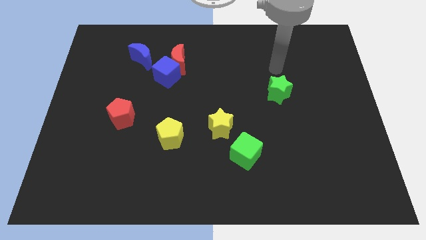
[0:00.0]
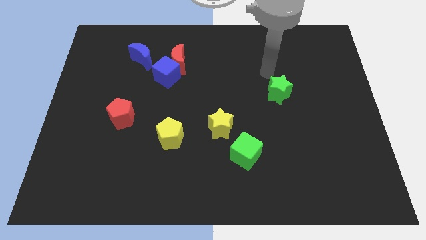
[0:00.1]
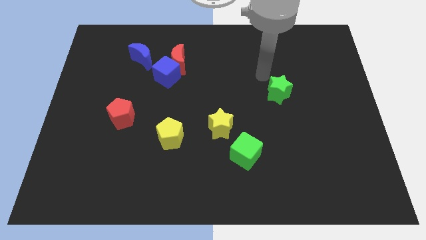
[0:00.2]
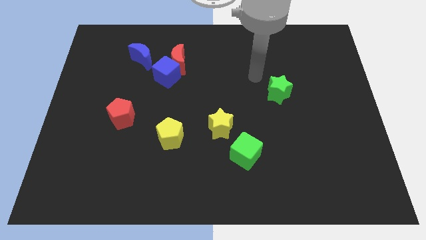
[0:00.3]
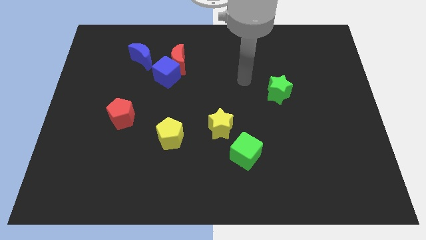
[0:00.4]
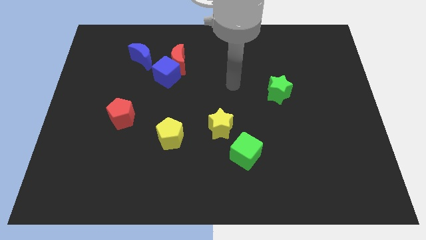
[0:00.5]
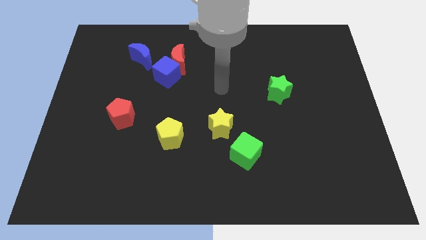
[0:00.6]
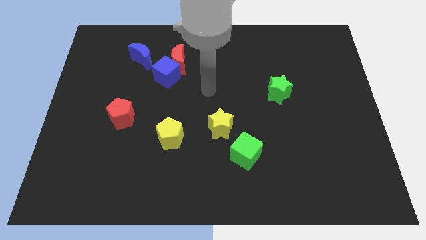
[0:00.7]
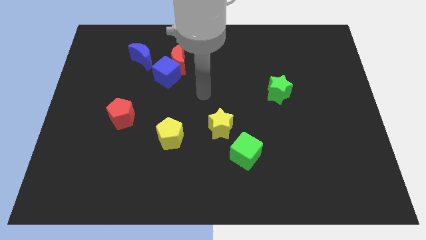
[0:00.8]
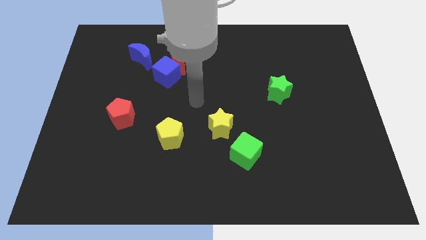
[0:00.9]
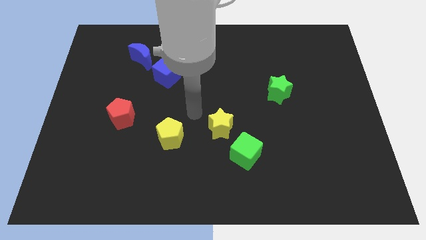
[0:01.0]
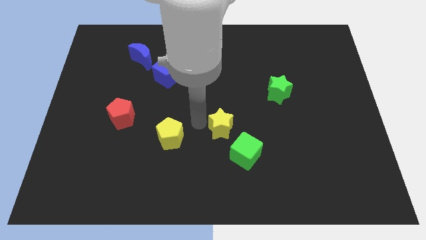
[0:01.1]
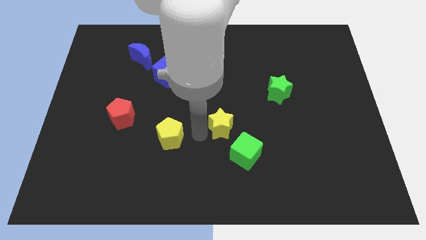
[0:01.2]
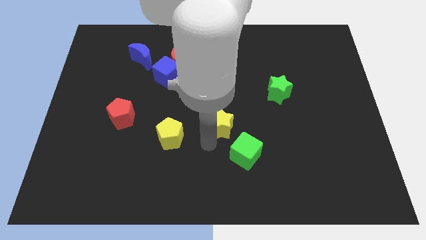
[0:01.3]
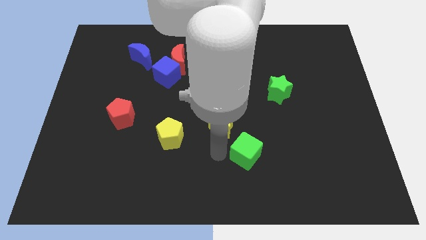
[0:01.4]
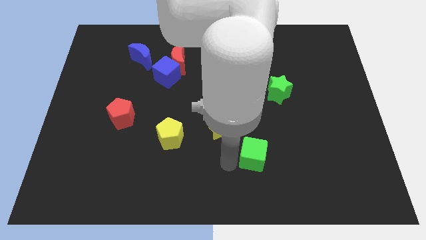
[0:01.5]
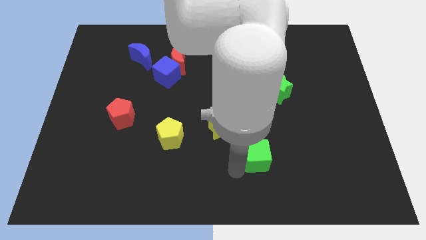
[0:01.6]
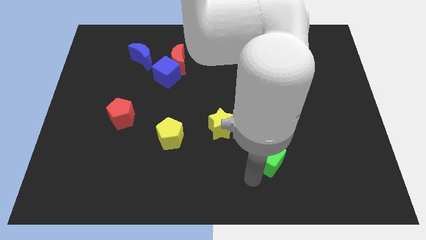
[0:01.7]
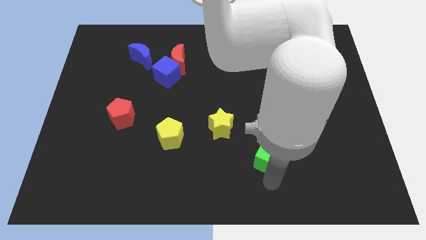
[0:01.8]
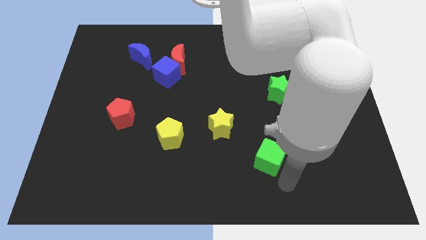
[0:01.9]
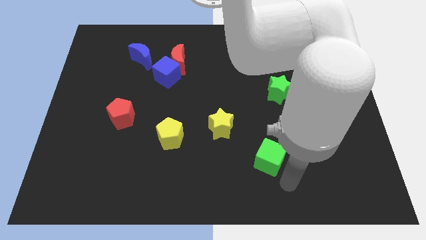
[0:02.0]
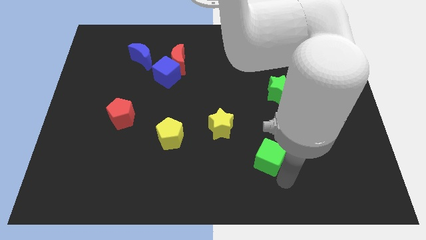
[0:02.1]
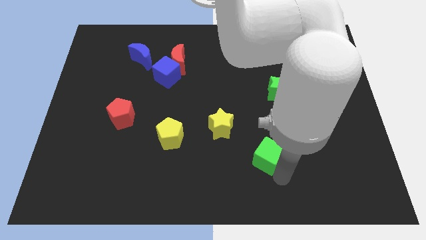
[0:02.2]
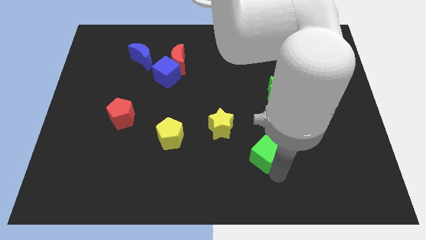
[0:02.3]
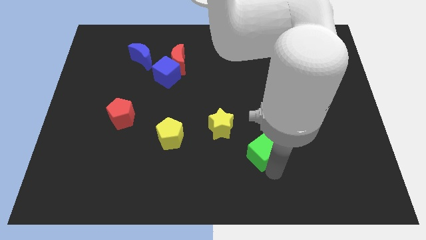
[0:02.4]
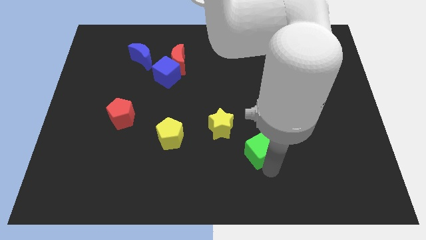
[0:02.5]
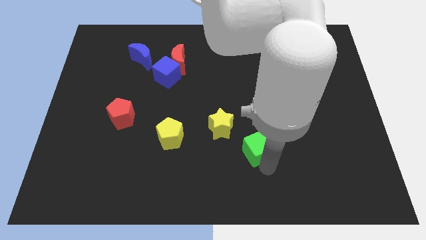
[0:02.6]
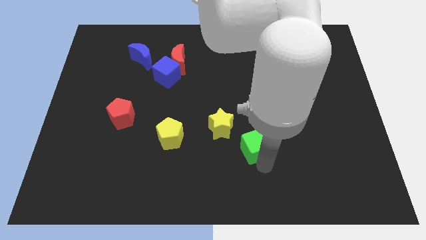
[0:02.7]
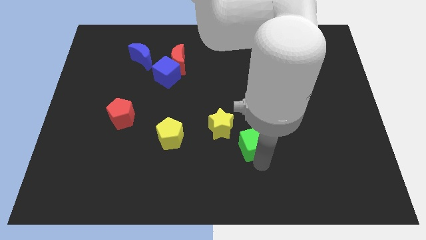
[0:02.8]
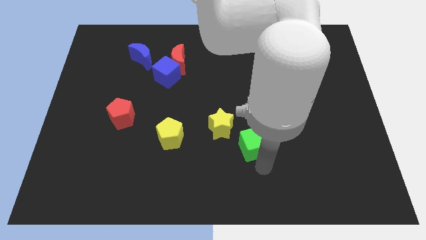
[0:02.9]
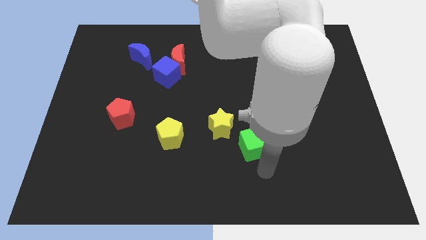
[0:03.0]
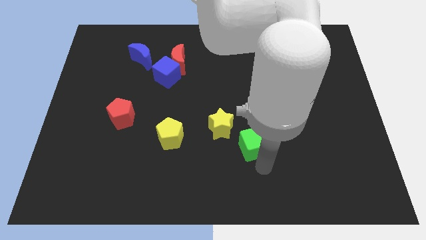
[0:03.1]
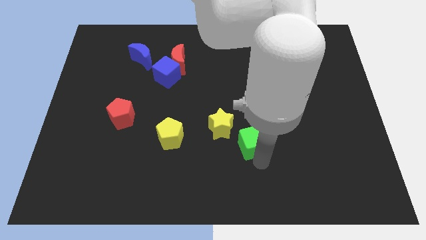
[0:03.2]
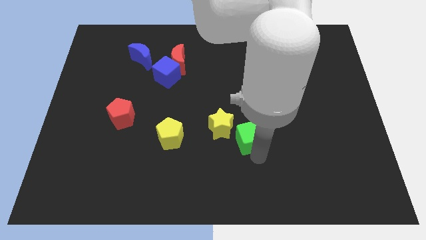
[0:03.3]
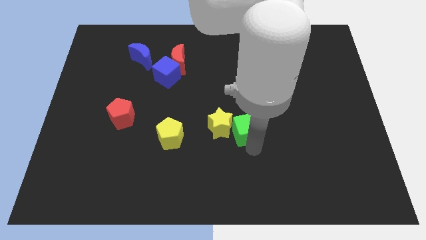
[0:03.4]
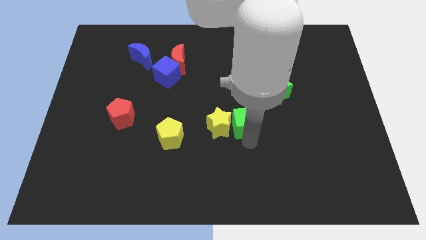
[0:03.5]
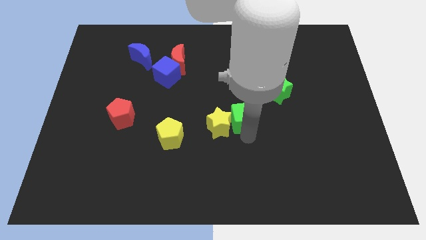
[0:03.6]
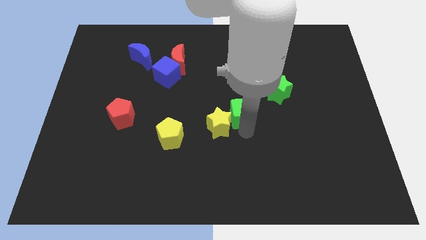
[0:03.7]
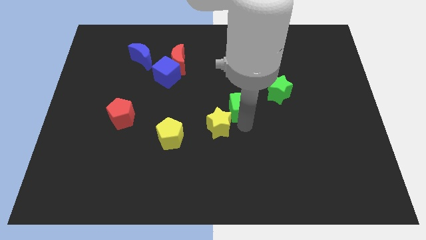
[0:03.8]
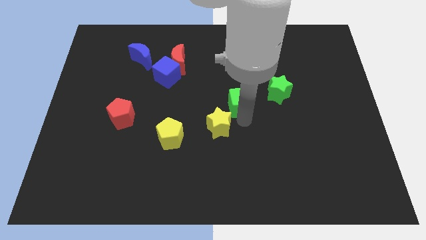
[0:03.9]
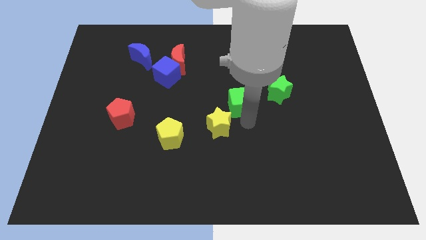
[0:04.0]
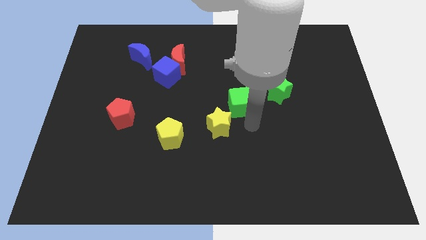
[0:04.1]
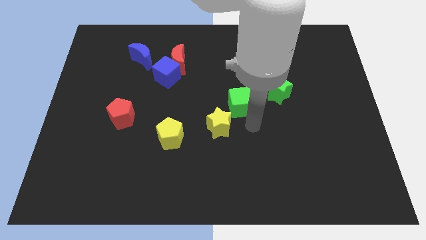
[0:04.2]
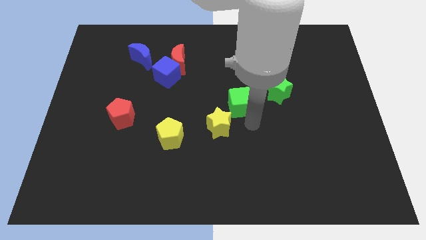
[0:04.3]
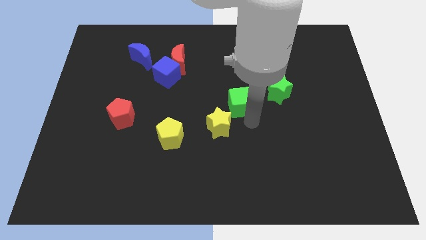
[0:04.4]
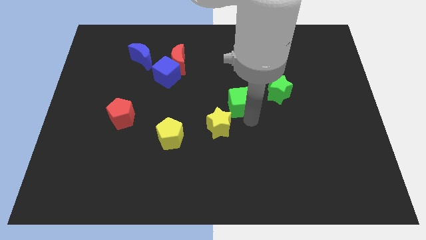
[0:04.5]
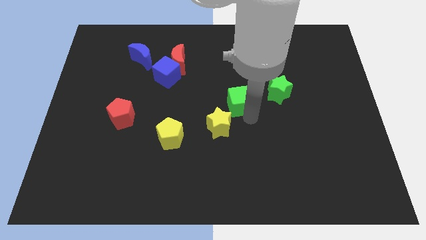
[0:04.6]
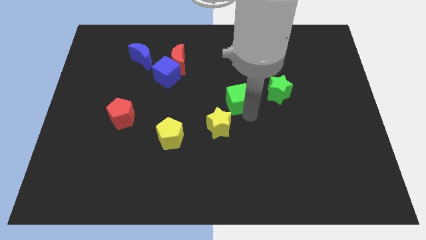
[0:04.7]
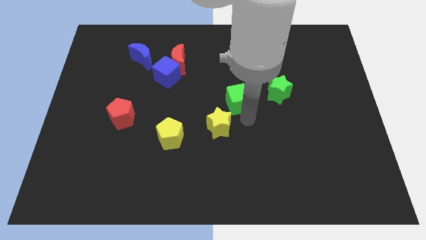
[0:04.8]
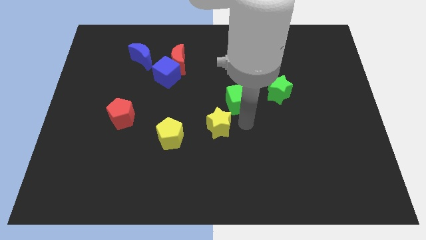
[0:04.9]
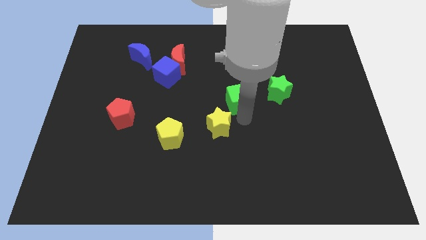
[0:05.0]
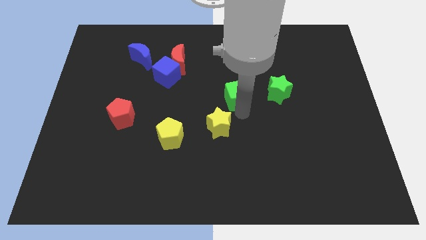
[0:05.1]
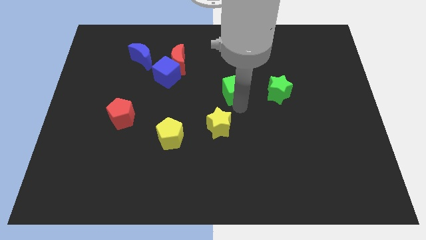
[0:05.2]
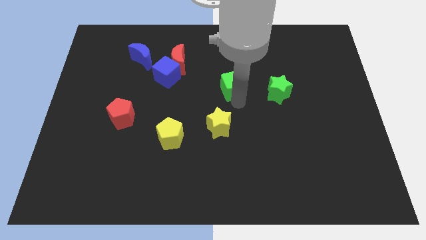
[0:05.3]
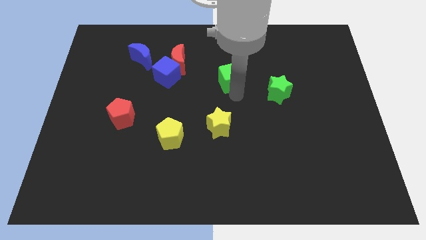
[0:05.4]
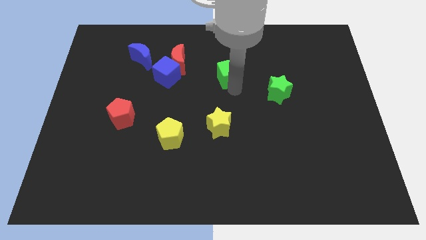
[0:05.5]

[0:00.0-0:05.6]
push the green cube right of the red moon

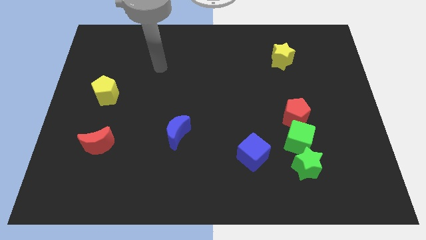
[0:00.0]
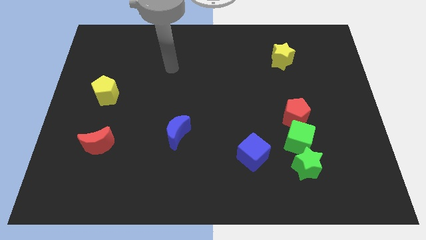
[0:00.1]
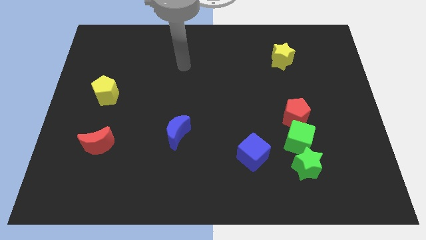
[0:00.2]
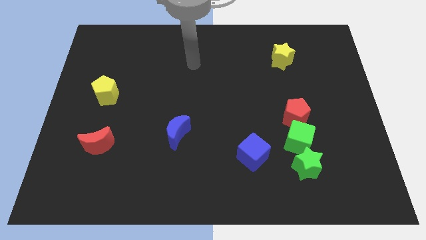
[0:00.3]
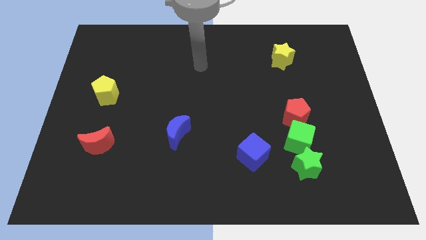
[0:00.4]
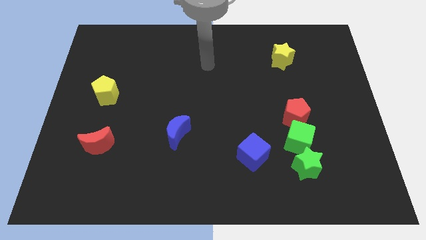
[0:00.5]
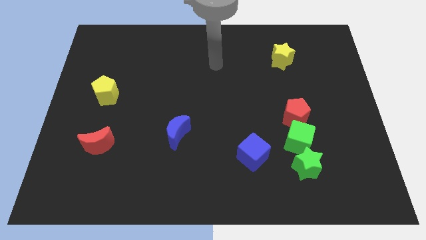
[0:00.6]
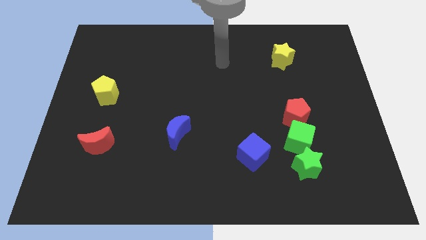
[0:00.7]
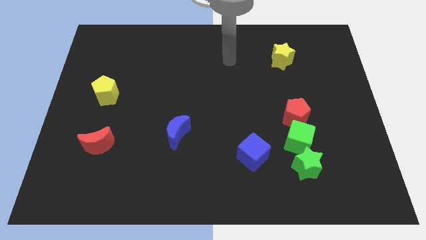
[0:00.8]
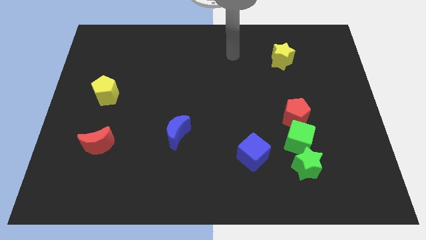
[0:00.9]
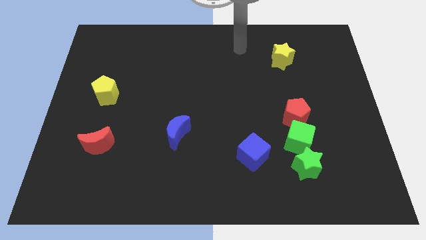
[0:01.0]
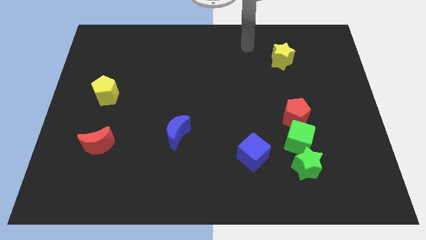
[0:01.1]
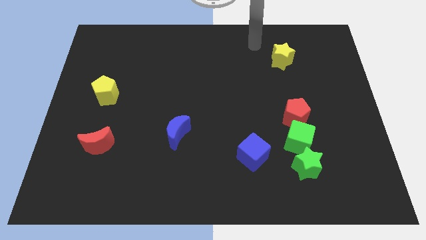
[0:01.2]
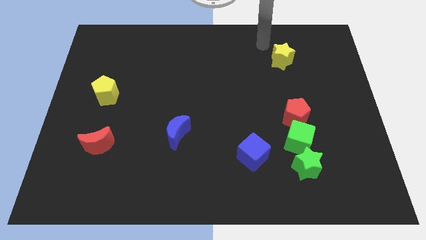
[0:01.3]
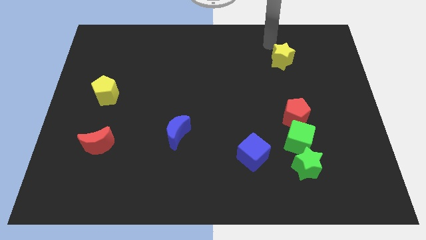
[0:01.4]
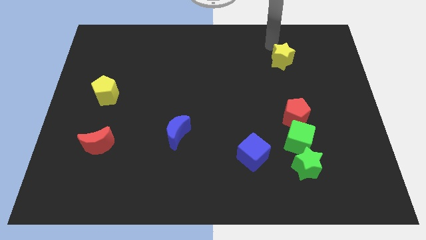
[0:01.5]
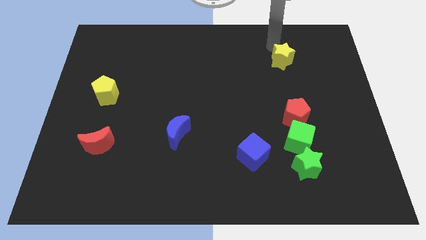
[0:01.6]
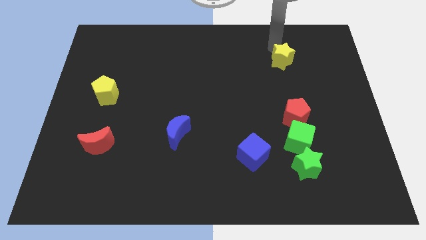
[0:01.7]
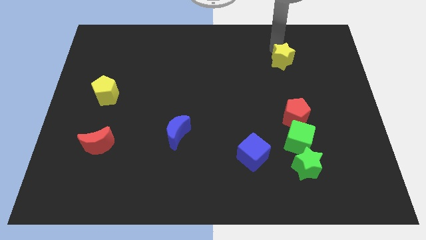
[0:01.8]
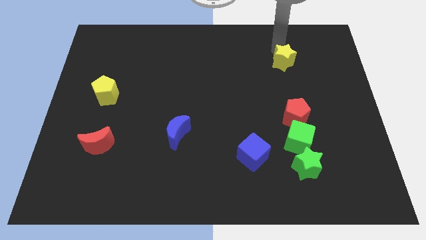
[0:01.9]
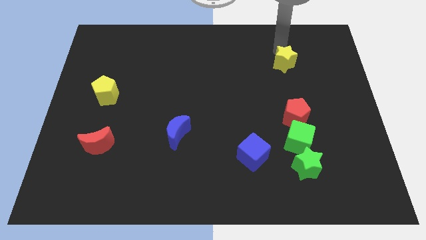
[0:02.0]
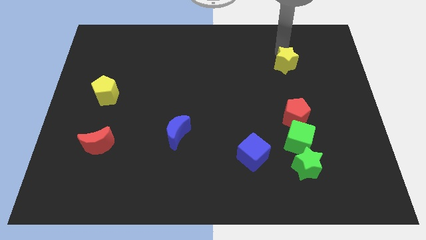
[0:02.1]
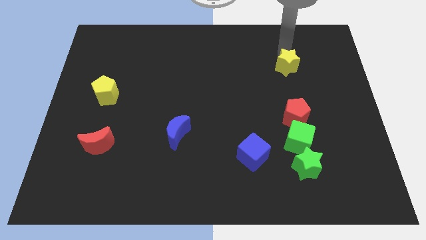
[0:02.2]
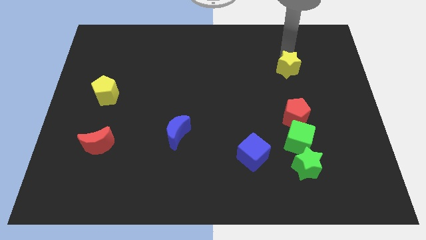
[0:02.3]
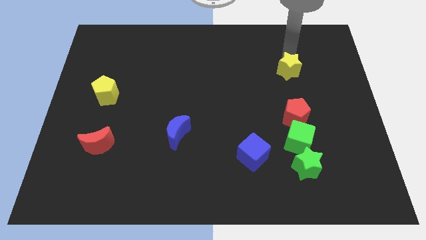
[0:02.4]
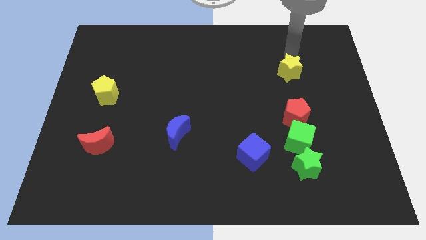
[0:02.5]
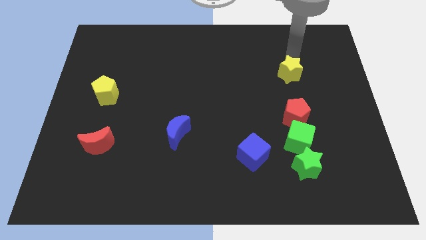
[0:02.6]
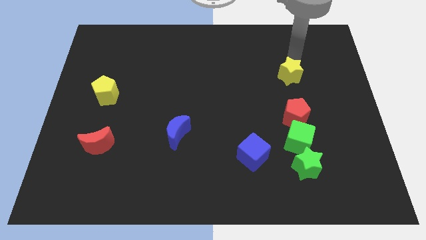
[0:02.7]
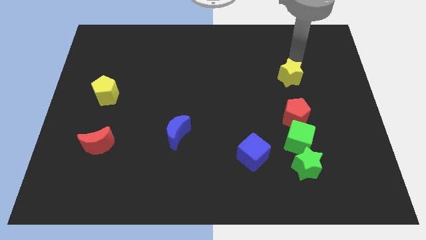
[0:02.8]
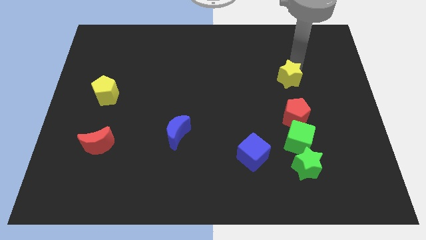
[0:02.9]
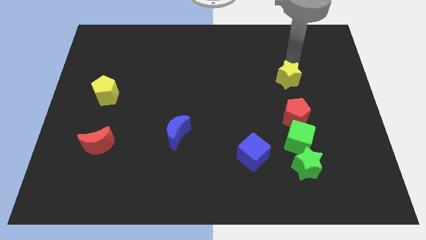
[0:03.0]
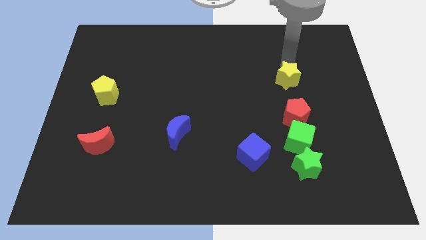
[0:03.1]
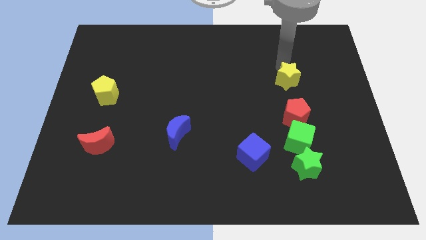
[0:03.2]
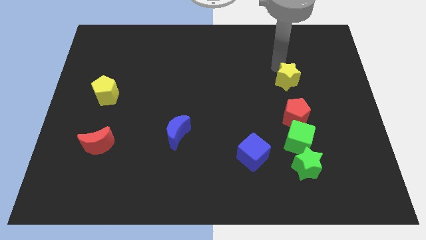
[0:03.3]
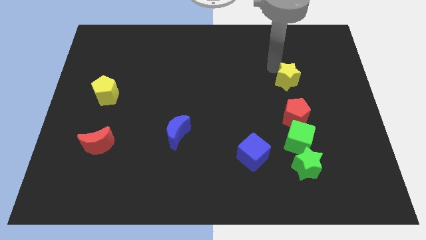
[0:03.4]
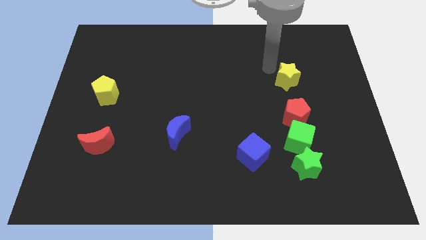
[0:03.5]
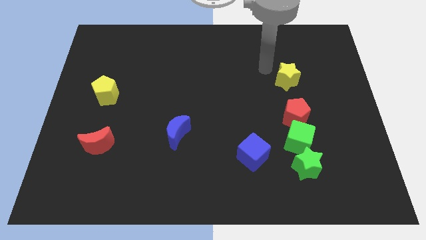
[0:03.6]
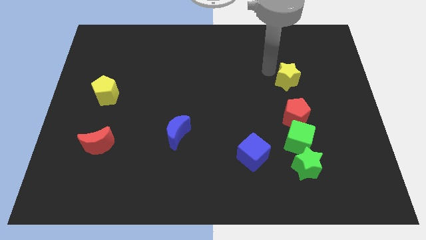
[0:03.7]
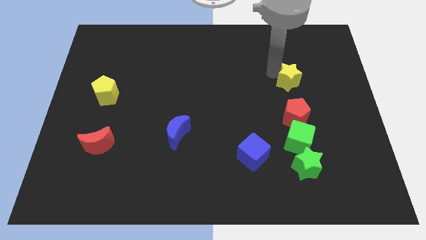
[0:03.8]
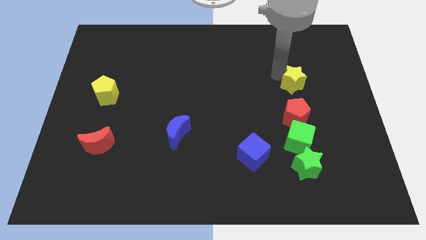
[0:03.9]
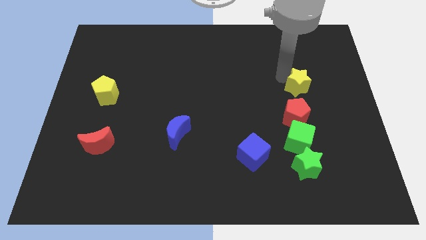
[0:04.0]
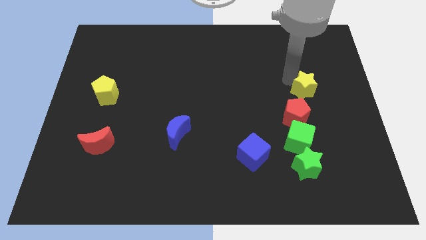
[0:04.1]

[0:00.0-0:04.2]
move the yellow star to the top right of the red pentagon
